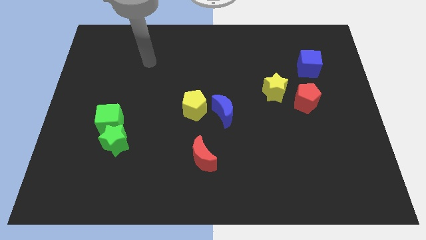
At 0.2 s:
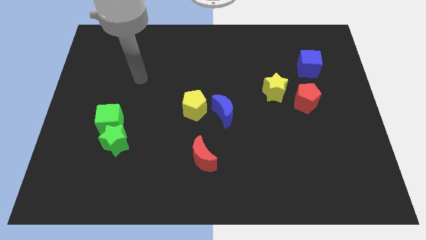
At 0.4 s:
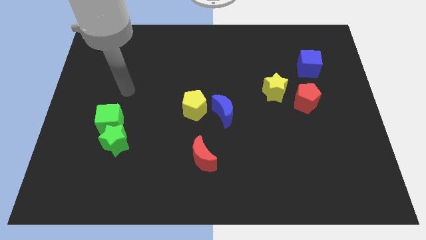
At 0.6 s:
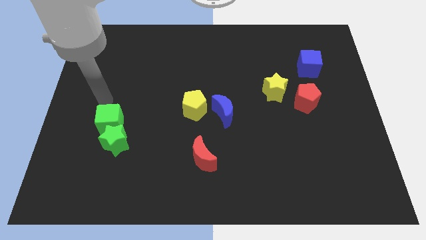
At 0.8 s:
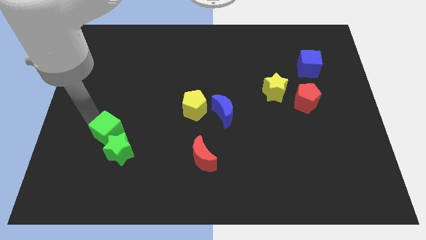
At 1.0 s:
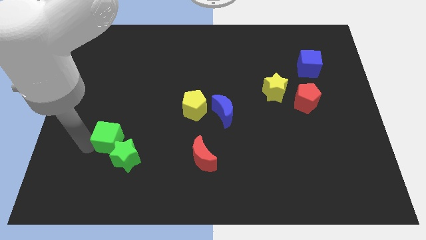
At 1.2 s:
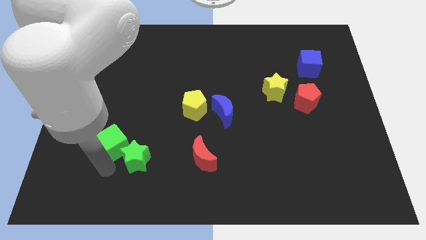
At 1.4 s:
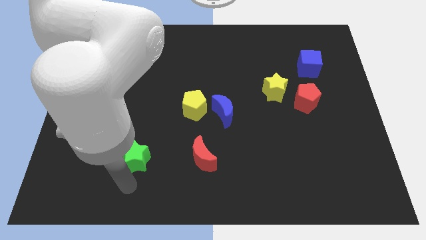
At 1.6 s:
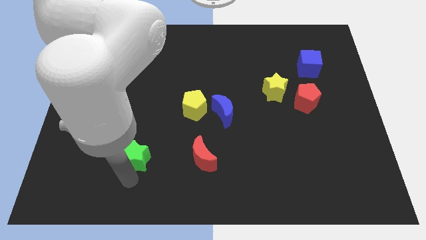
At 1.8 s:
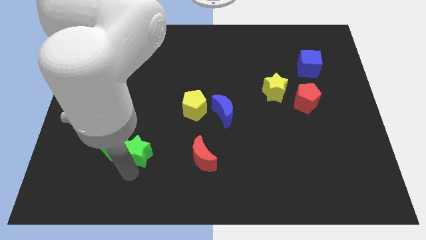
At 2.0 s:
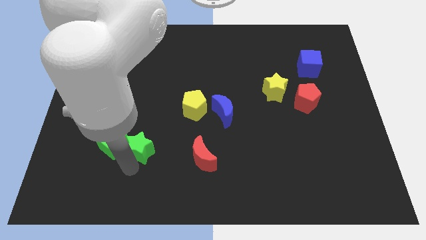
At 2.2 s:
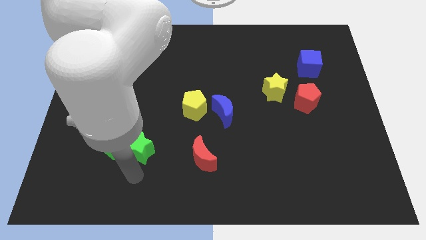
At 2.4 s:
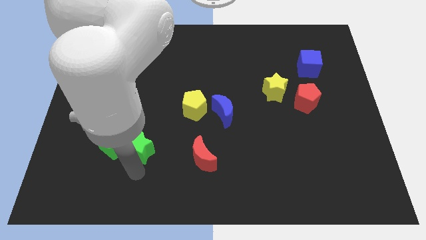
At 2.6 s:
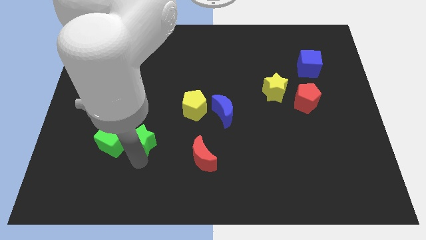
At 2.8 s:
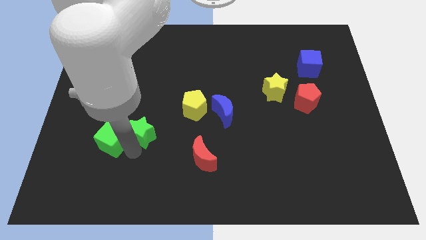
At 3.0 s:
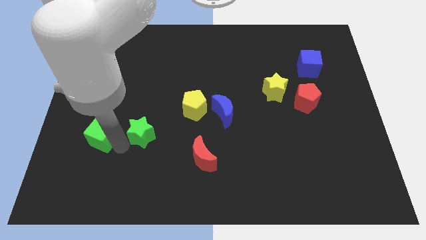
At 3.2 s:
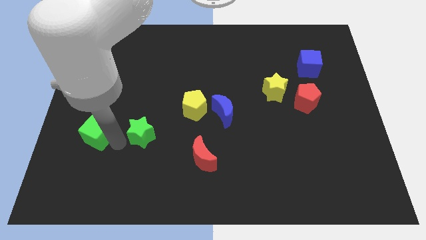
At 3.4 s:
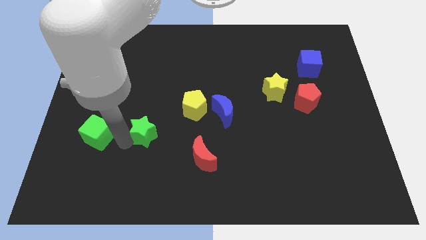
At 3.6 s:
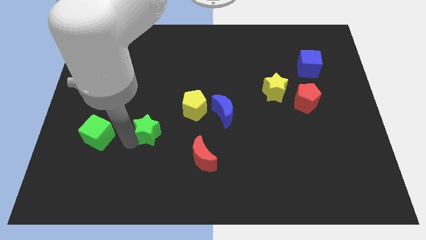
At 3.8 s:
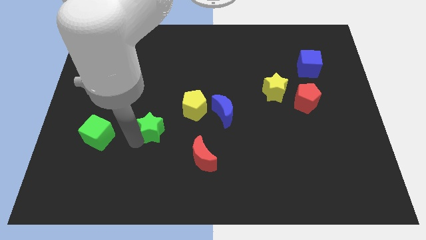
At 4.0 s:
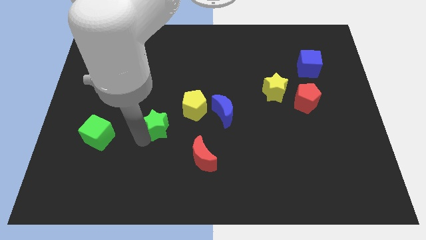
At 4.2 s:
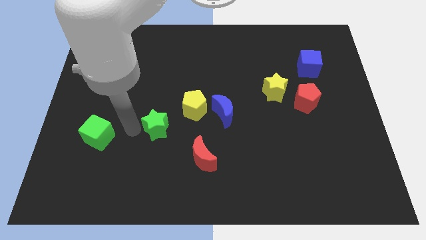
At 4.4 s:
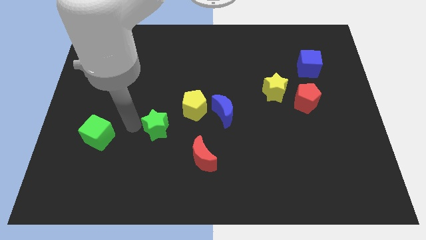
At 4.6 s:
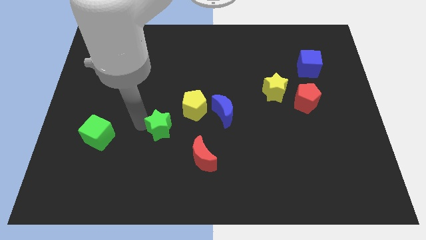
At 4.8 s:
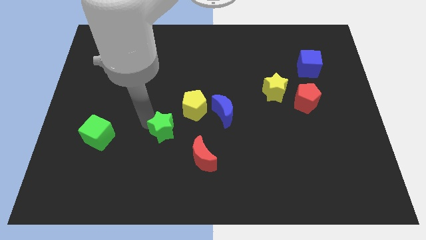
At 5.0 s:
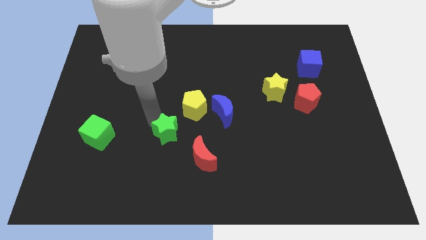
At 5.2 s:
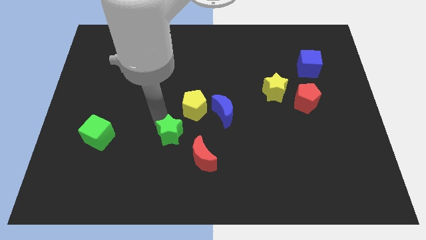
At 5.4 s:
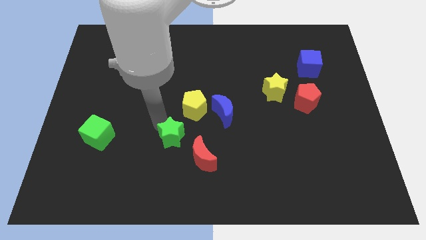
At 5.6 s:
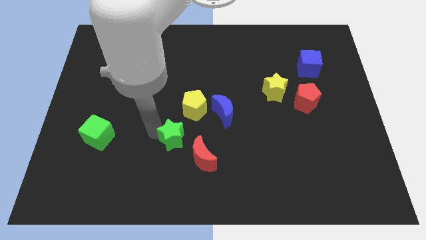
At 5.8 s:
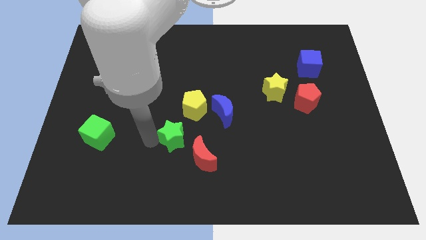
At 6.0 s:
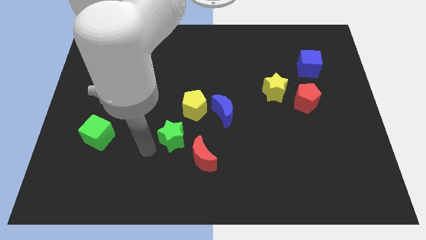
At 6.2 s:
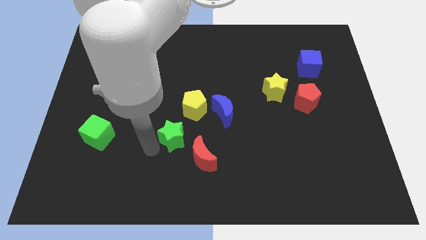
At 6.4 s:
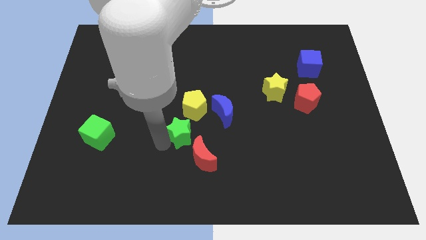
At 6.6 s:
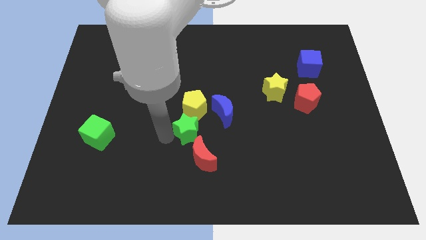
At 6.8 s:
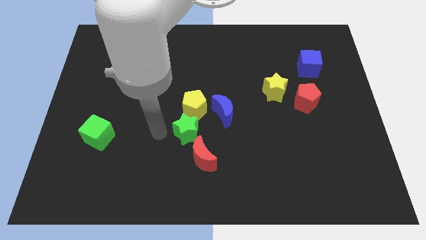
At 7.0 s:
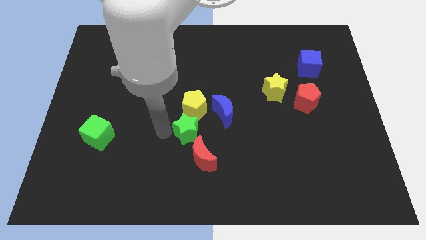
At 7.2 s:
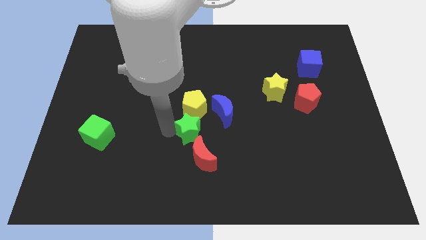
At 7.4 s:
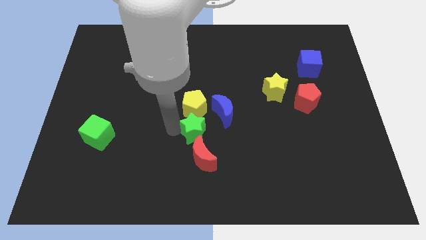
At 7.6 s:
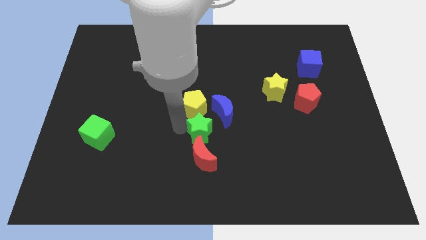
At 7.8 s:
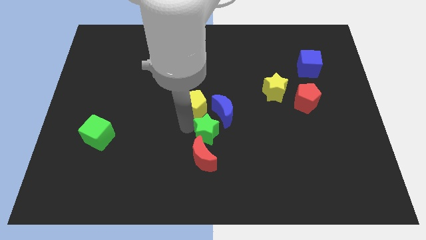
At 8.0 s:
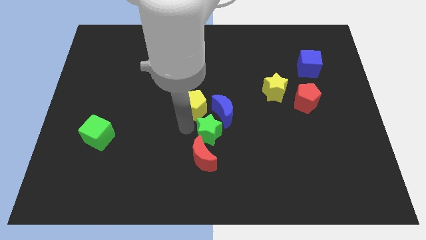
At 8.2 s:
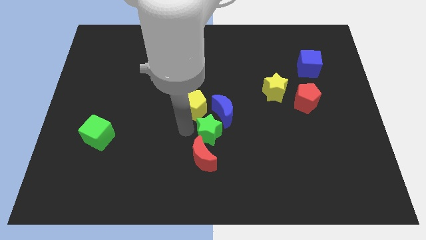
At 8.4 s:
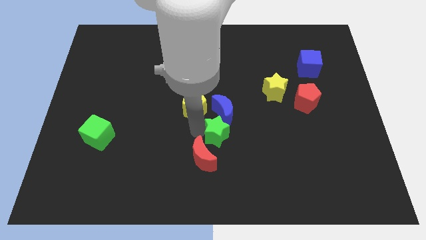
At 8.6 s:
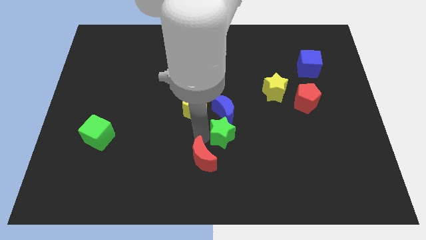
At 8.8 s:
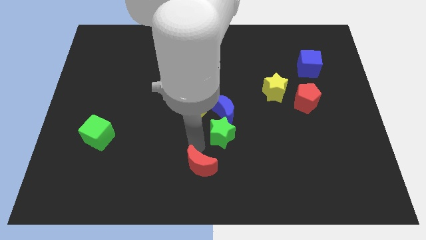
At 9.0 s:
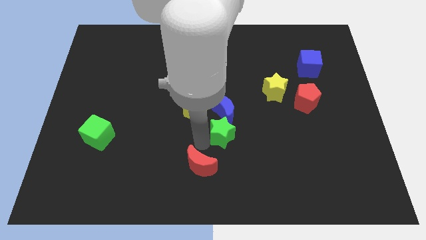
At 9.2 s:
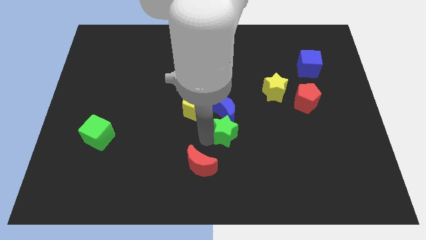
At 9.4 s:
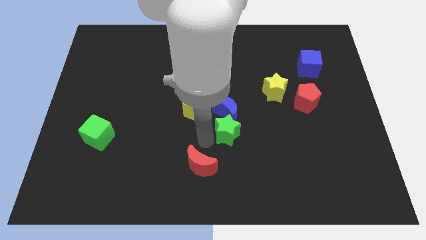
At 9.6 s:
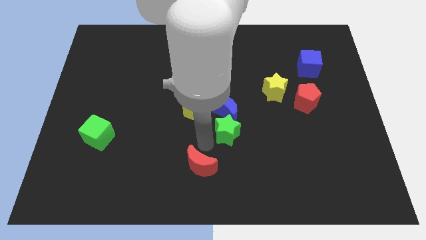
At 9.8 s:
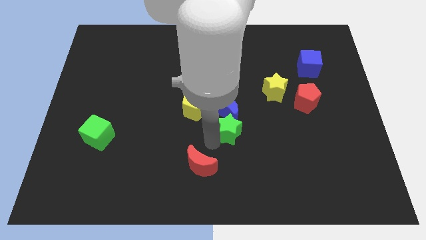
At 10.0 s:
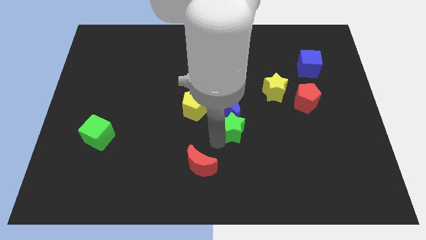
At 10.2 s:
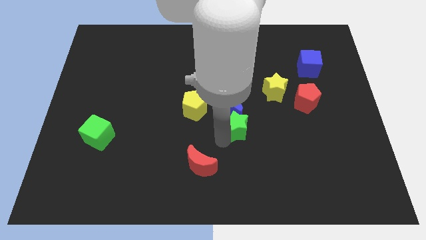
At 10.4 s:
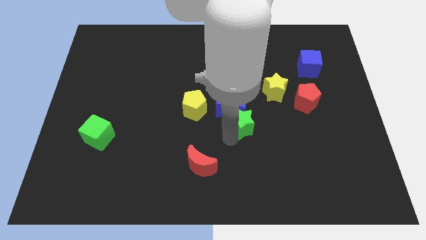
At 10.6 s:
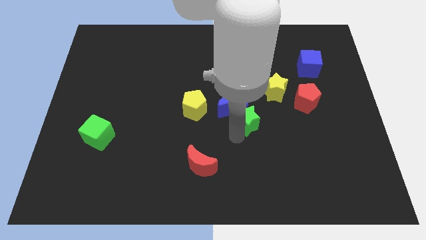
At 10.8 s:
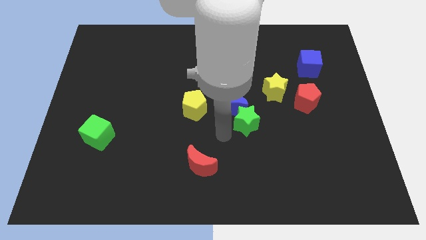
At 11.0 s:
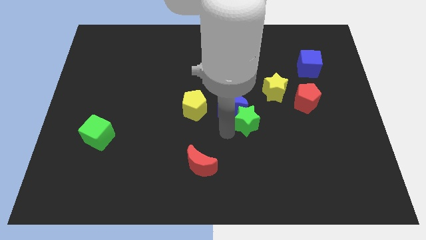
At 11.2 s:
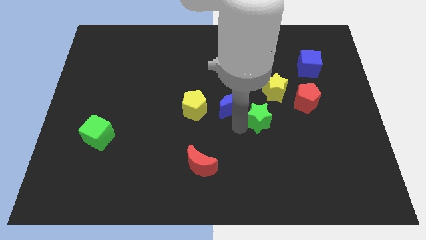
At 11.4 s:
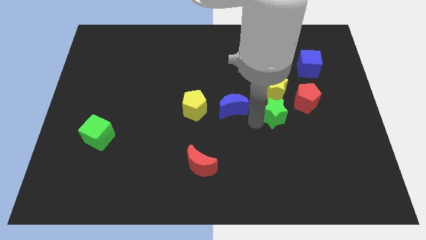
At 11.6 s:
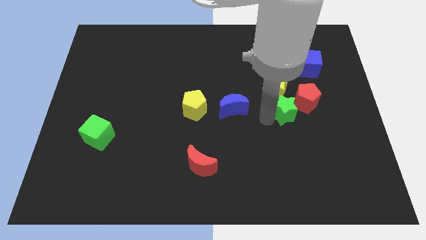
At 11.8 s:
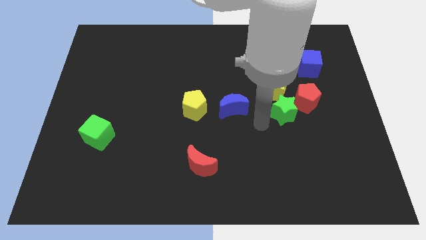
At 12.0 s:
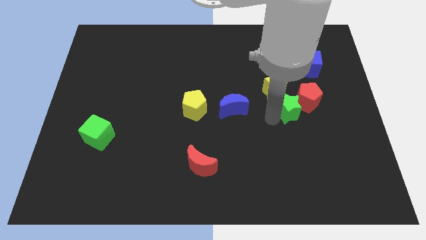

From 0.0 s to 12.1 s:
put the green star towards the red pentagon
